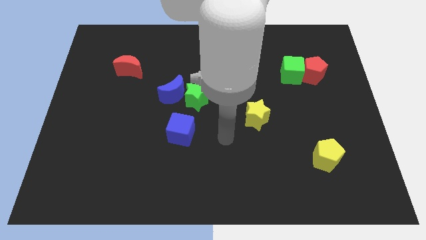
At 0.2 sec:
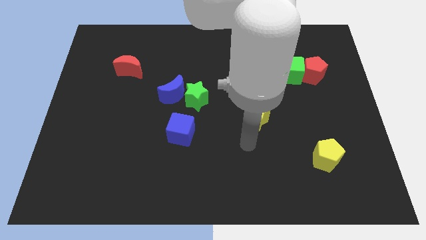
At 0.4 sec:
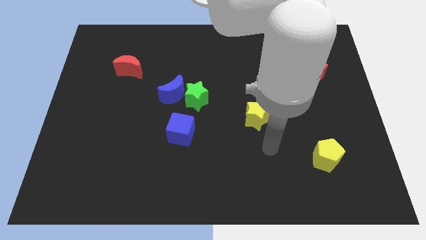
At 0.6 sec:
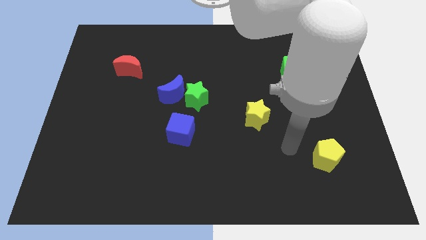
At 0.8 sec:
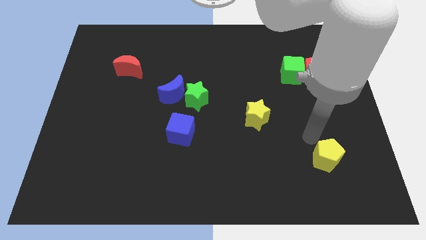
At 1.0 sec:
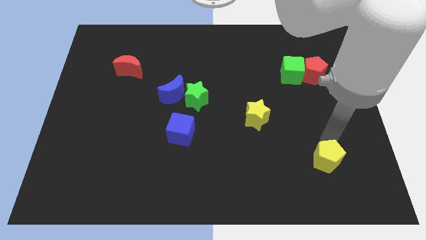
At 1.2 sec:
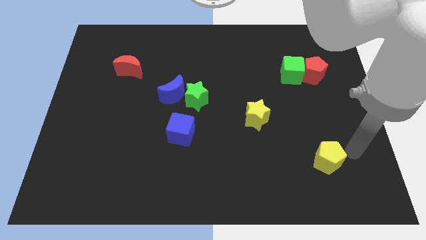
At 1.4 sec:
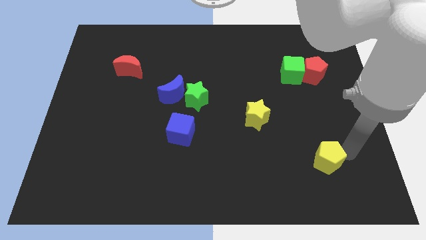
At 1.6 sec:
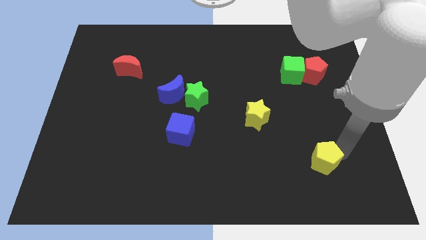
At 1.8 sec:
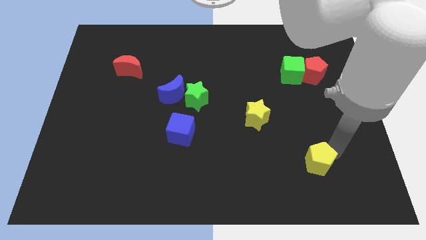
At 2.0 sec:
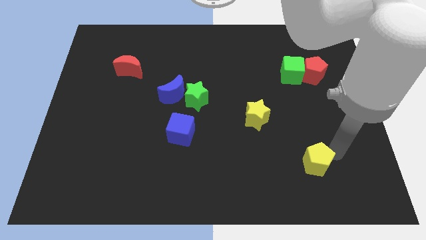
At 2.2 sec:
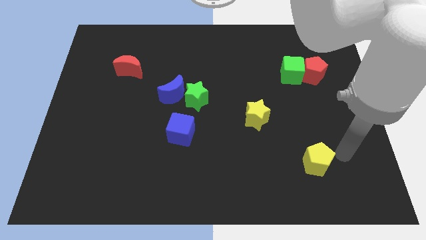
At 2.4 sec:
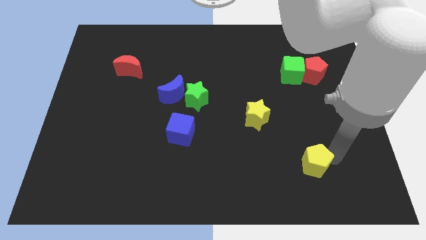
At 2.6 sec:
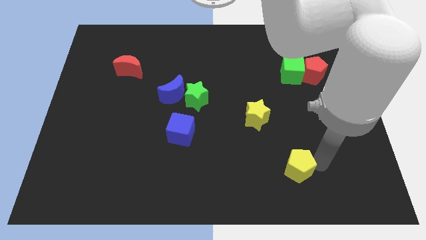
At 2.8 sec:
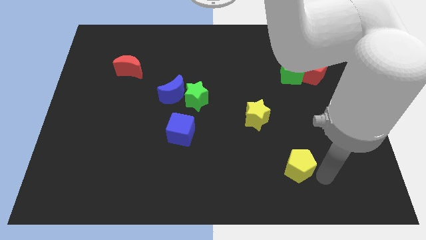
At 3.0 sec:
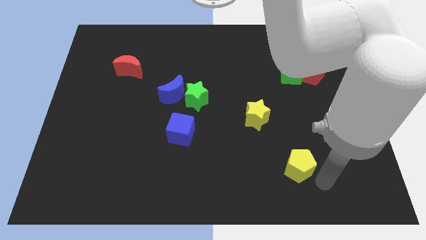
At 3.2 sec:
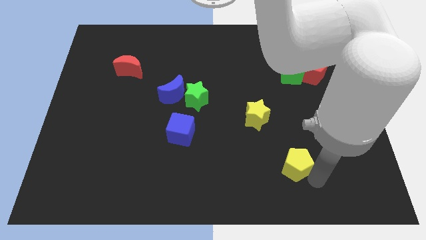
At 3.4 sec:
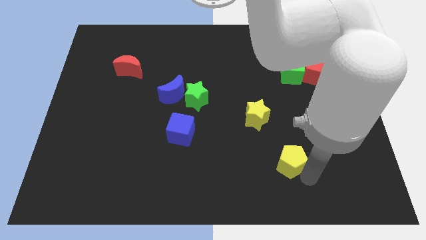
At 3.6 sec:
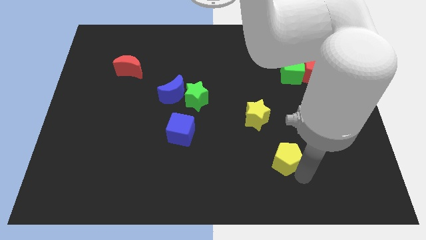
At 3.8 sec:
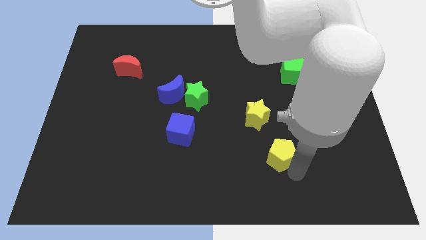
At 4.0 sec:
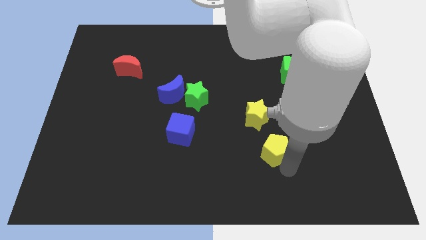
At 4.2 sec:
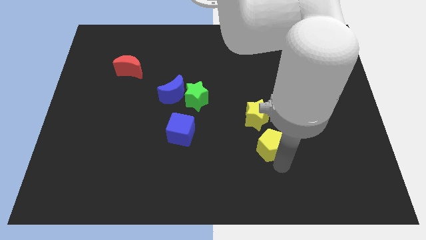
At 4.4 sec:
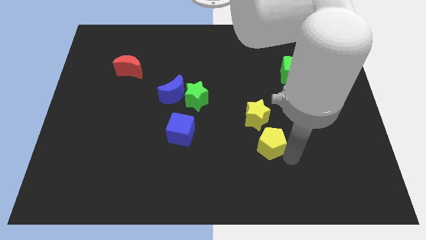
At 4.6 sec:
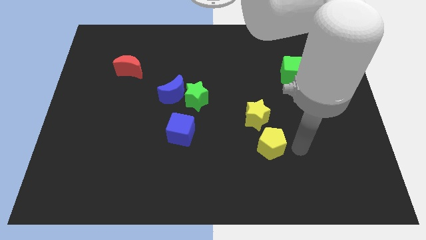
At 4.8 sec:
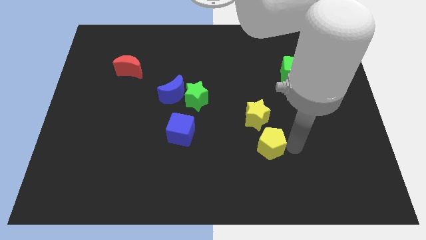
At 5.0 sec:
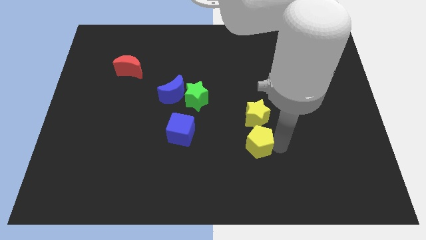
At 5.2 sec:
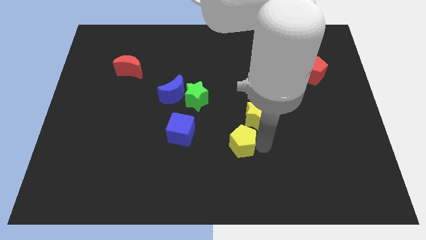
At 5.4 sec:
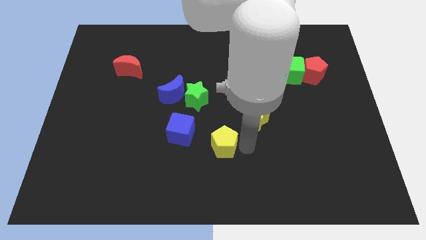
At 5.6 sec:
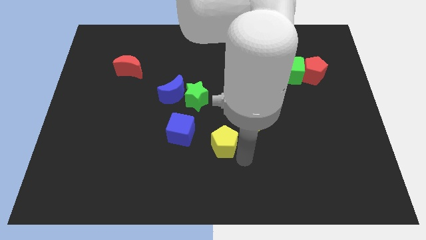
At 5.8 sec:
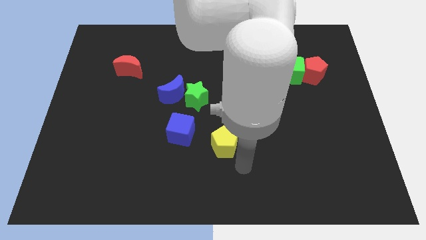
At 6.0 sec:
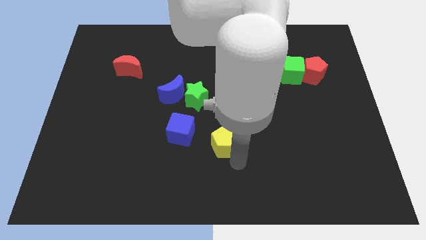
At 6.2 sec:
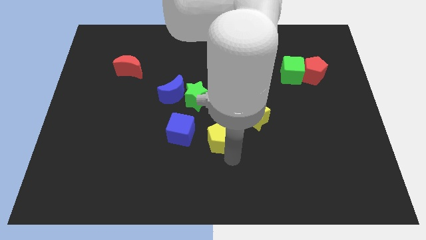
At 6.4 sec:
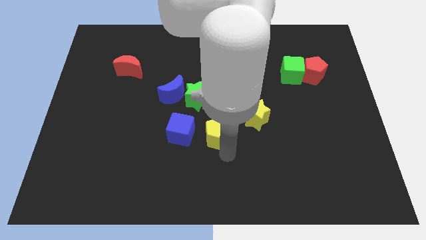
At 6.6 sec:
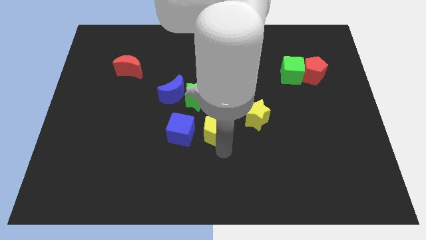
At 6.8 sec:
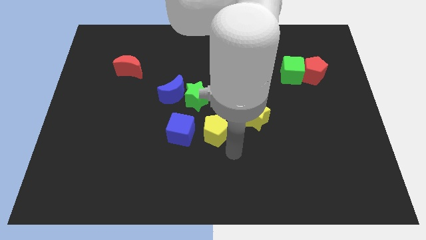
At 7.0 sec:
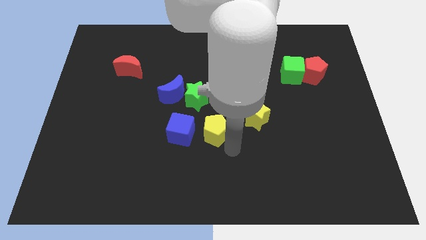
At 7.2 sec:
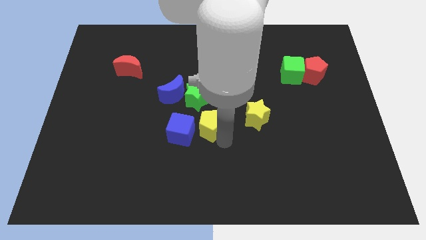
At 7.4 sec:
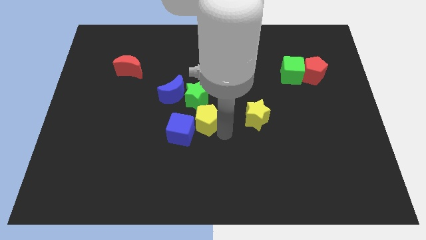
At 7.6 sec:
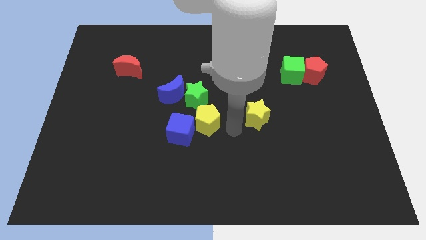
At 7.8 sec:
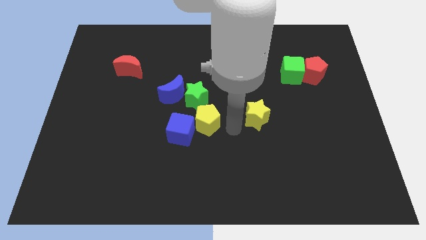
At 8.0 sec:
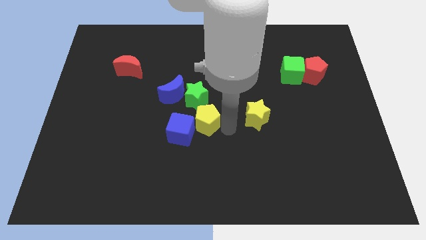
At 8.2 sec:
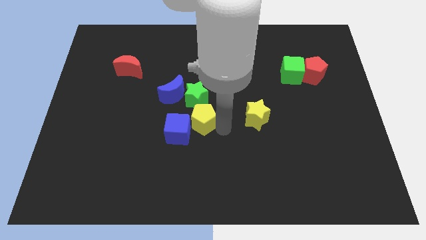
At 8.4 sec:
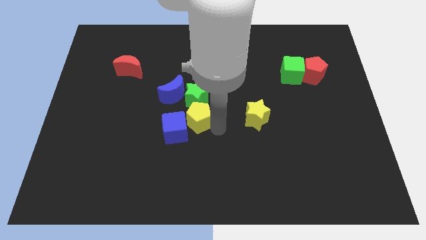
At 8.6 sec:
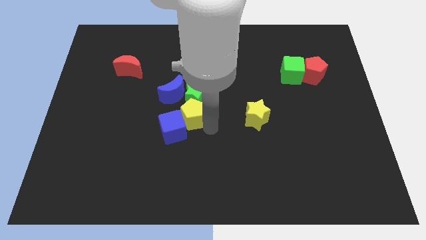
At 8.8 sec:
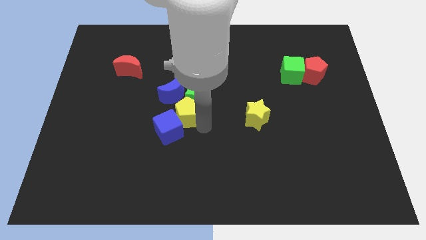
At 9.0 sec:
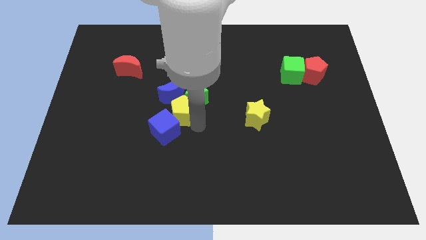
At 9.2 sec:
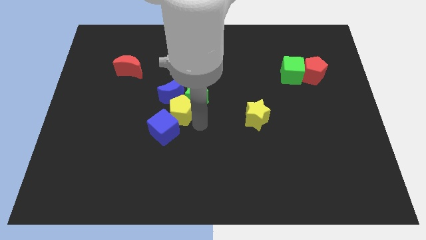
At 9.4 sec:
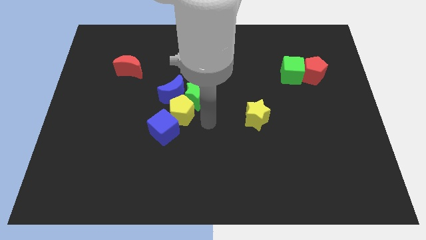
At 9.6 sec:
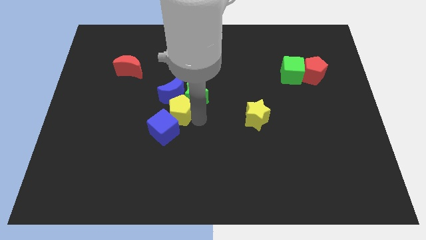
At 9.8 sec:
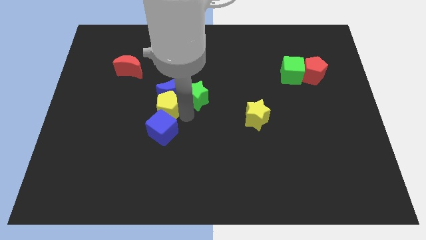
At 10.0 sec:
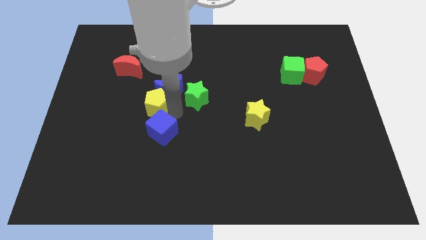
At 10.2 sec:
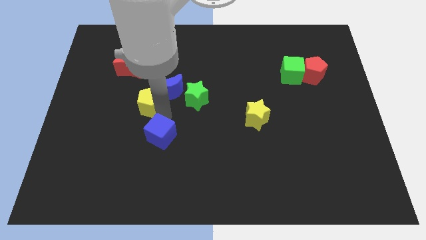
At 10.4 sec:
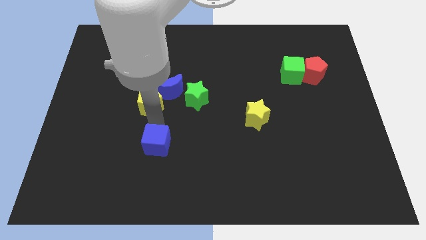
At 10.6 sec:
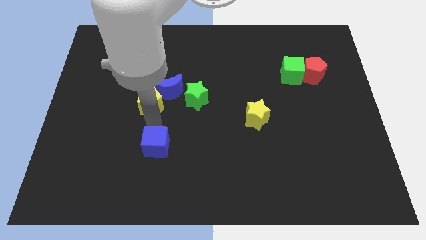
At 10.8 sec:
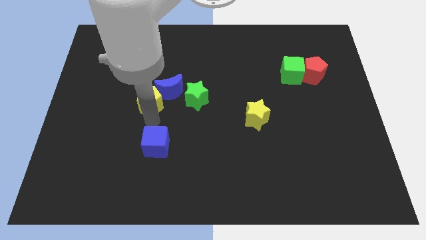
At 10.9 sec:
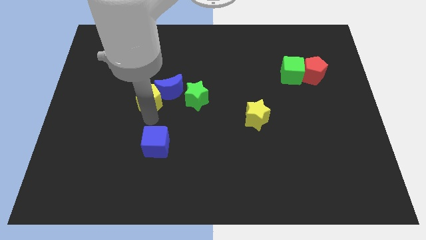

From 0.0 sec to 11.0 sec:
slide the yellow pentagon to the bottom right side of the red moon

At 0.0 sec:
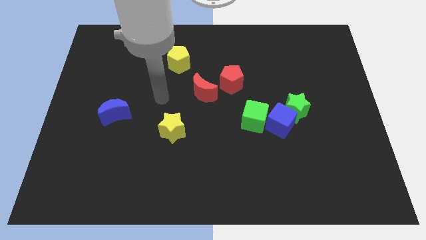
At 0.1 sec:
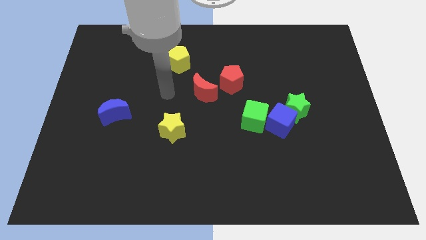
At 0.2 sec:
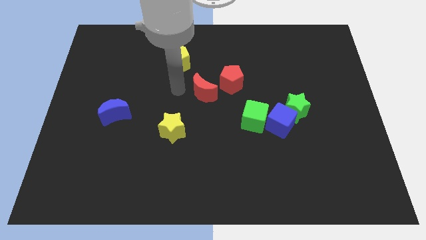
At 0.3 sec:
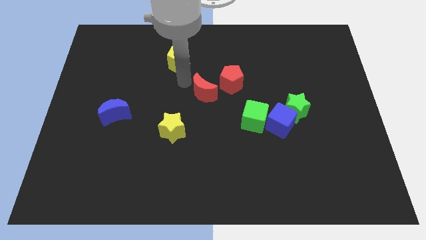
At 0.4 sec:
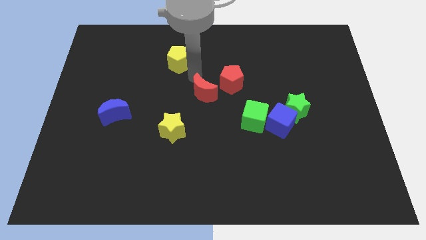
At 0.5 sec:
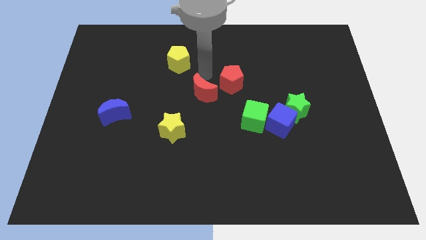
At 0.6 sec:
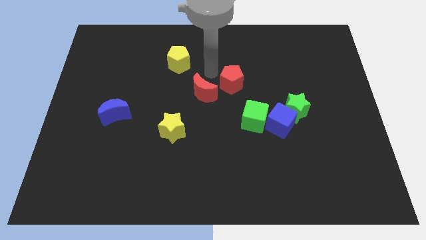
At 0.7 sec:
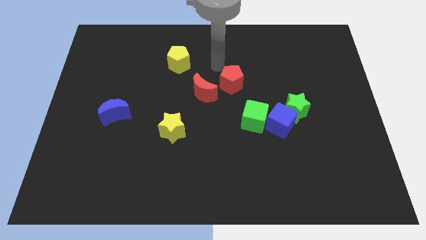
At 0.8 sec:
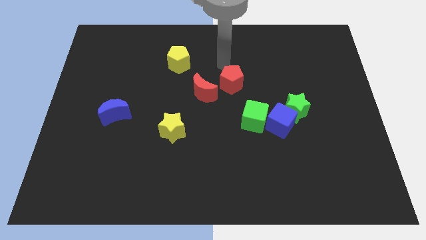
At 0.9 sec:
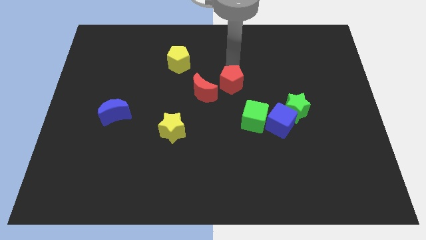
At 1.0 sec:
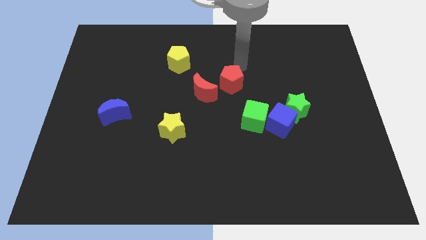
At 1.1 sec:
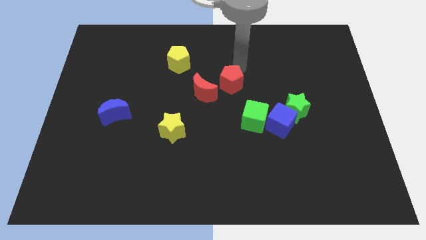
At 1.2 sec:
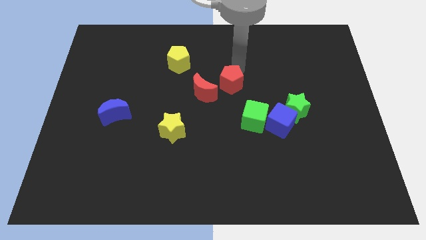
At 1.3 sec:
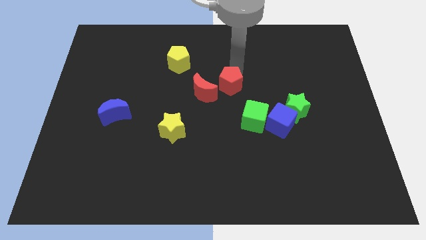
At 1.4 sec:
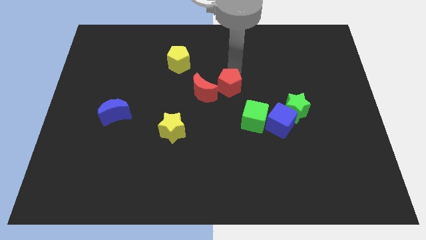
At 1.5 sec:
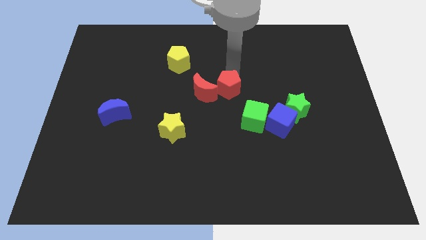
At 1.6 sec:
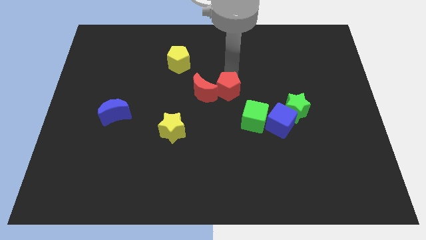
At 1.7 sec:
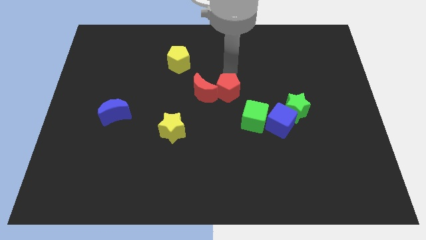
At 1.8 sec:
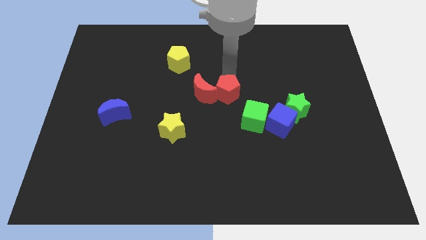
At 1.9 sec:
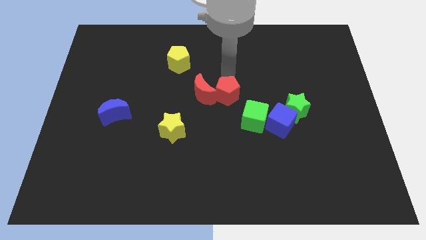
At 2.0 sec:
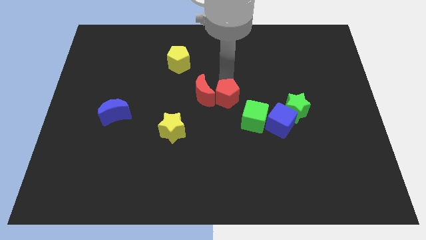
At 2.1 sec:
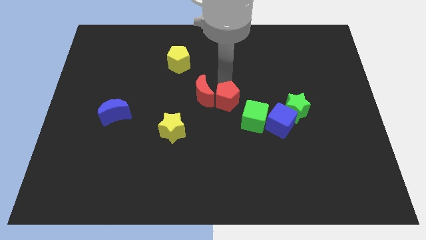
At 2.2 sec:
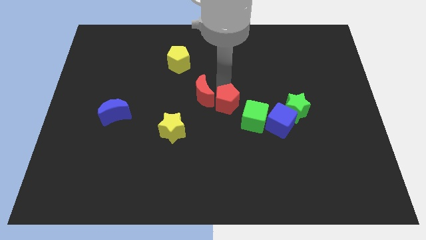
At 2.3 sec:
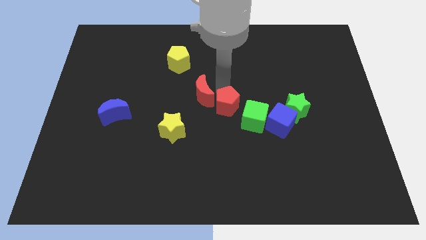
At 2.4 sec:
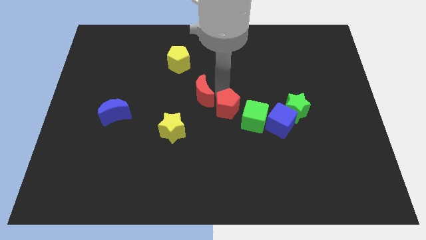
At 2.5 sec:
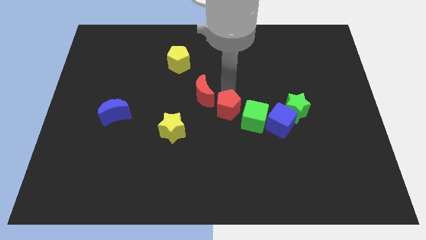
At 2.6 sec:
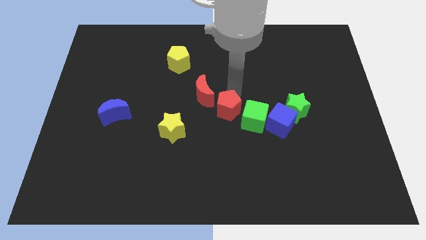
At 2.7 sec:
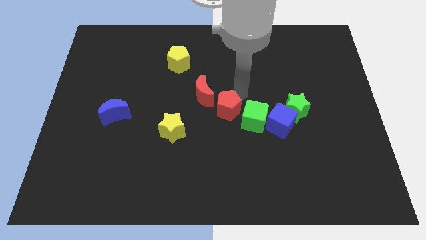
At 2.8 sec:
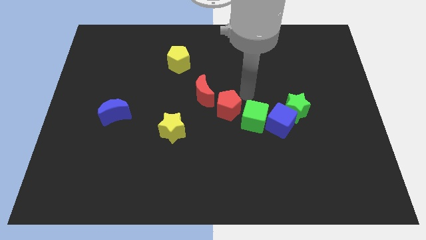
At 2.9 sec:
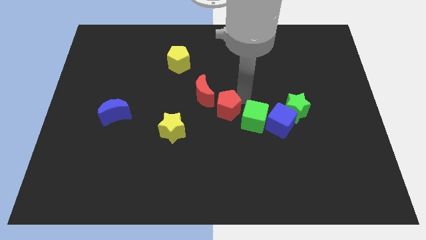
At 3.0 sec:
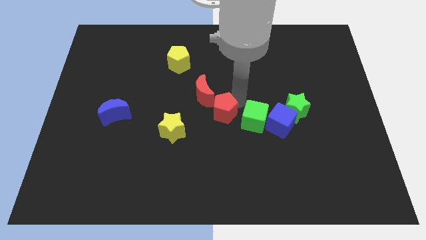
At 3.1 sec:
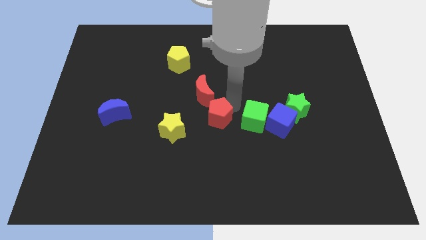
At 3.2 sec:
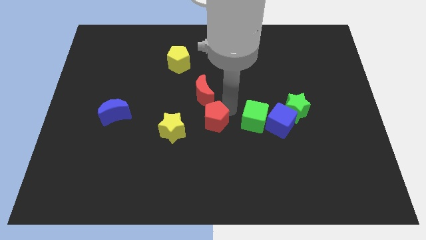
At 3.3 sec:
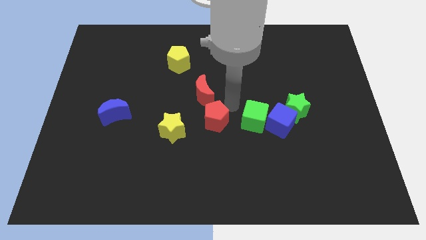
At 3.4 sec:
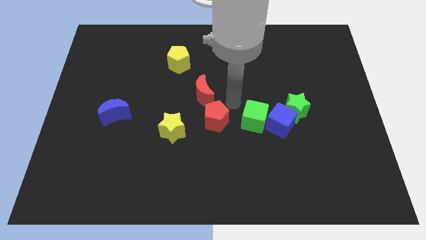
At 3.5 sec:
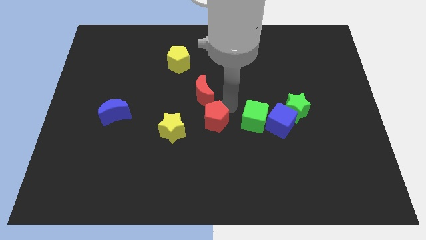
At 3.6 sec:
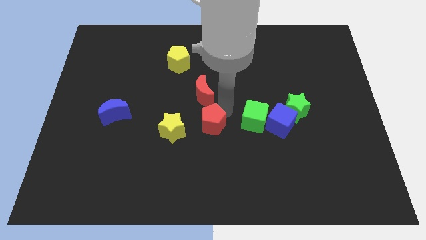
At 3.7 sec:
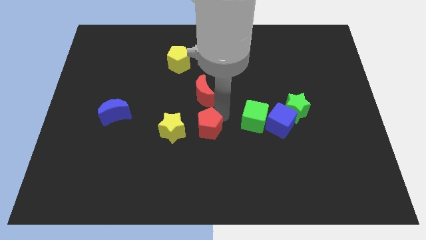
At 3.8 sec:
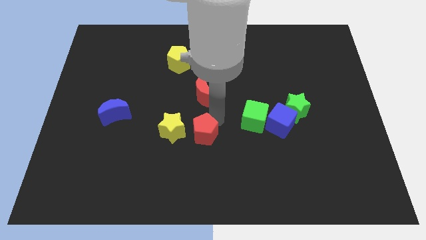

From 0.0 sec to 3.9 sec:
put the red pentagon to the bottom right side of the yellow star
